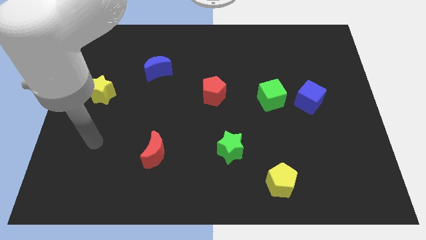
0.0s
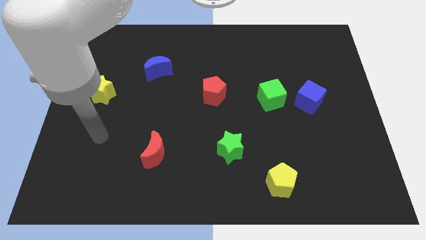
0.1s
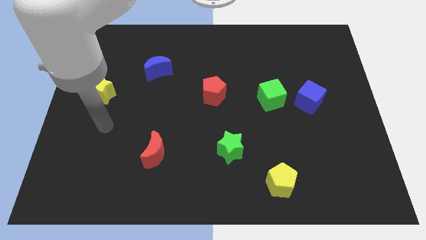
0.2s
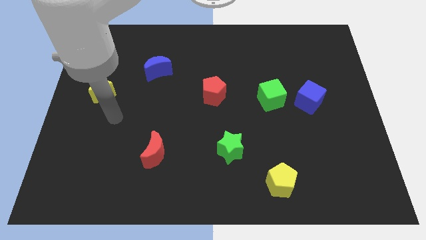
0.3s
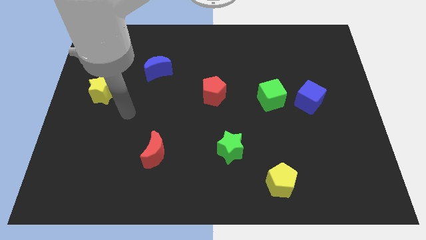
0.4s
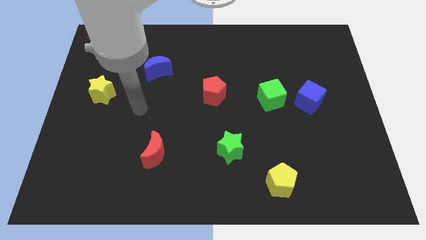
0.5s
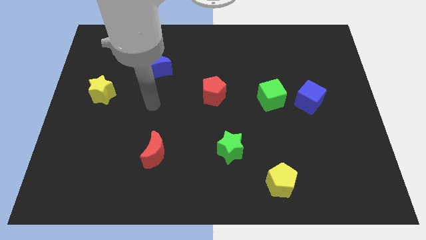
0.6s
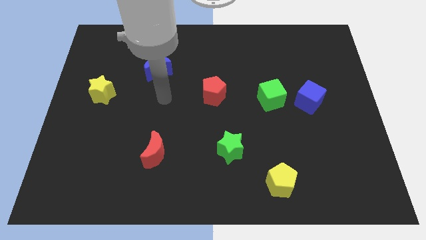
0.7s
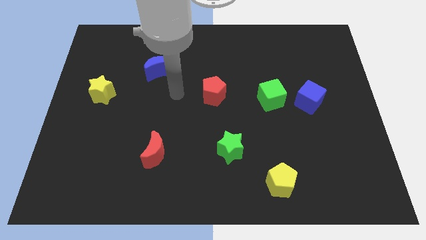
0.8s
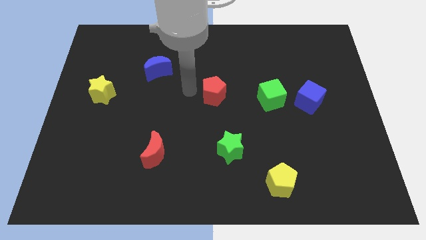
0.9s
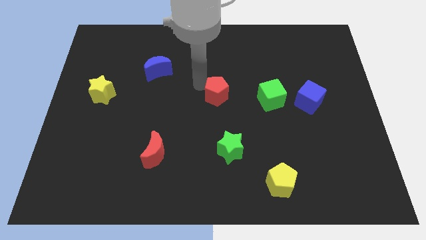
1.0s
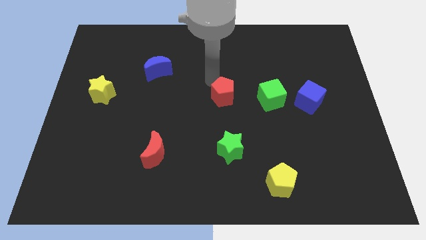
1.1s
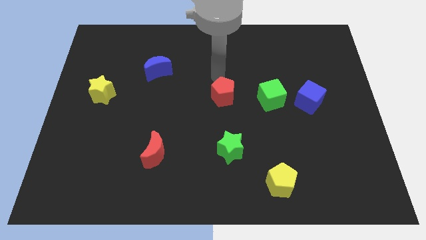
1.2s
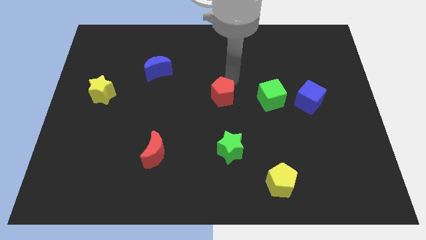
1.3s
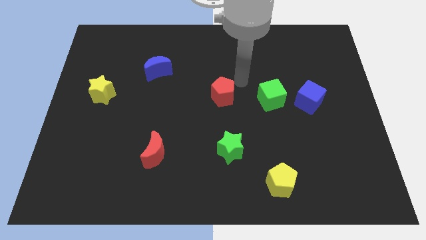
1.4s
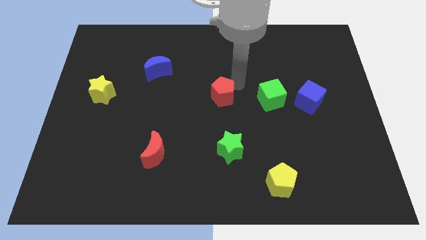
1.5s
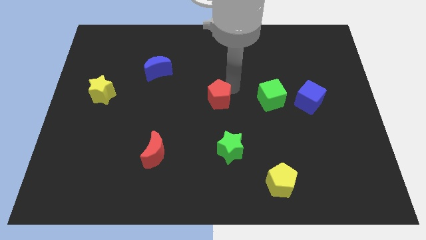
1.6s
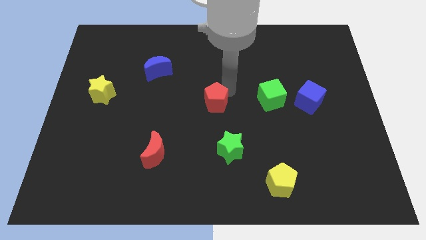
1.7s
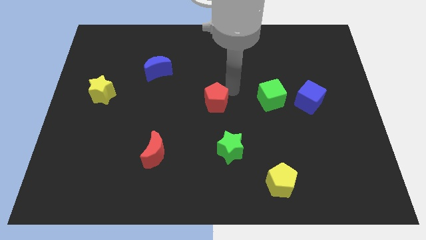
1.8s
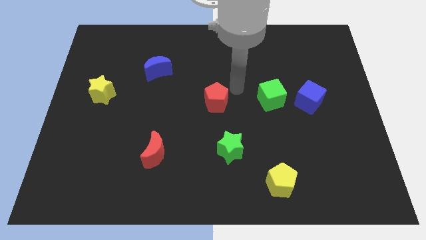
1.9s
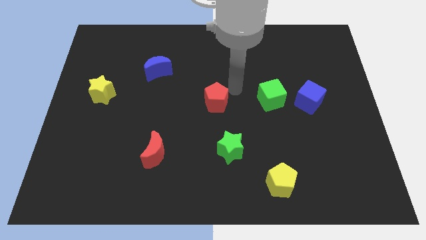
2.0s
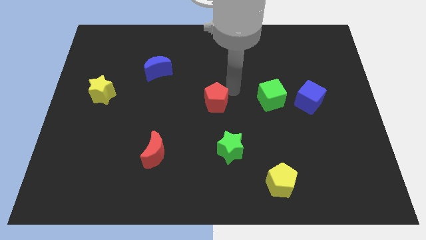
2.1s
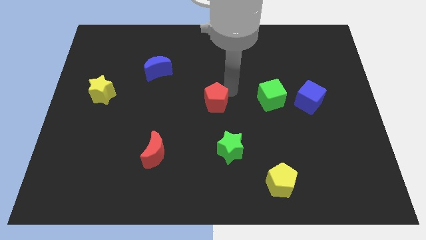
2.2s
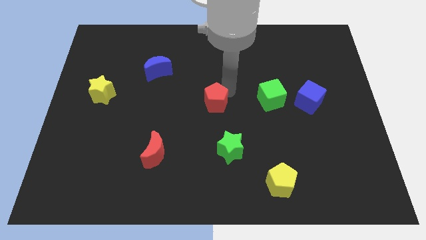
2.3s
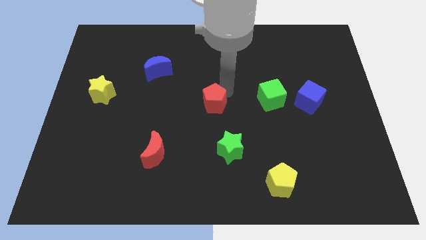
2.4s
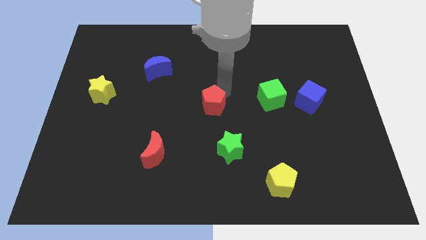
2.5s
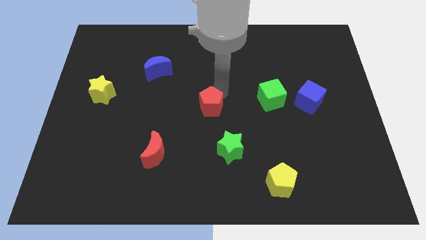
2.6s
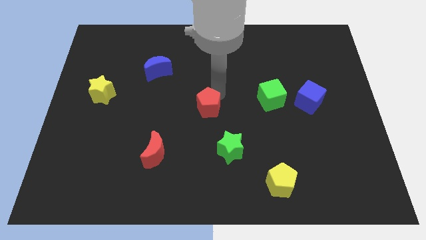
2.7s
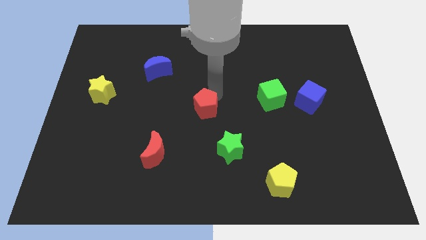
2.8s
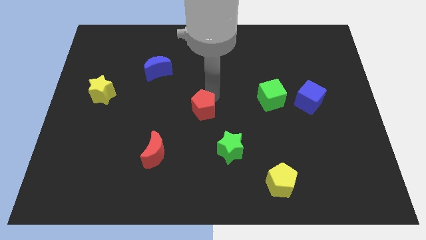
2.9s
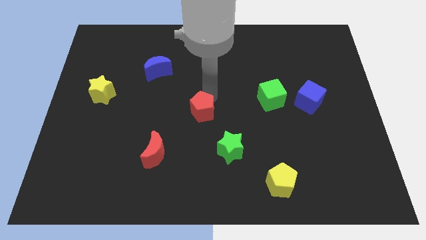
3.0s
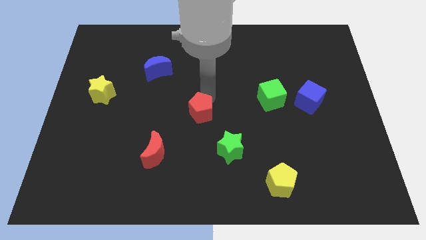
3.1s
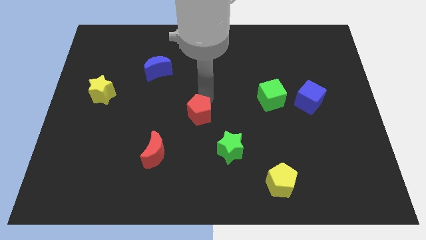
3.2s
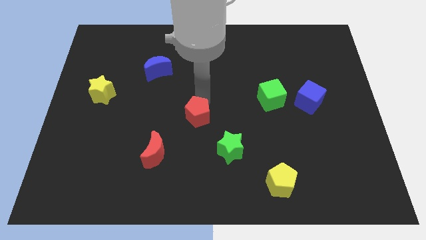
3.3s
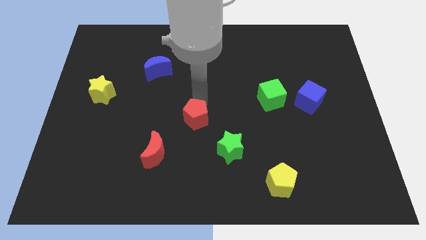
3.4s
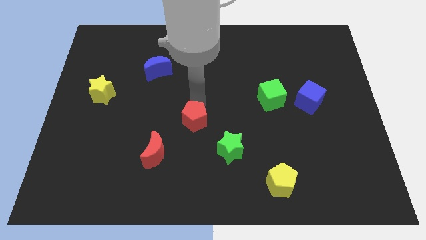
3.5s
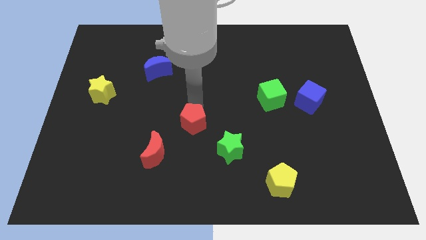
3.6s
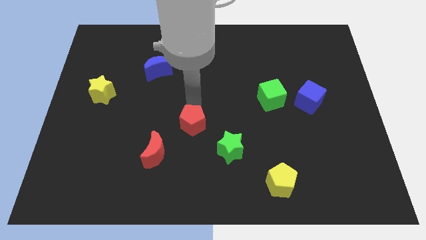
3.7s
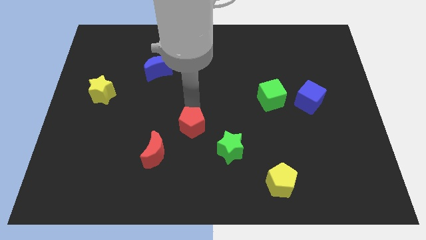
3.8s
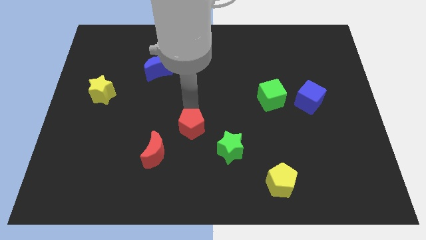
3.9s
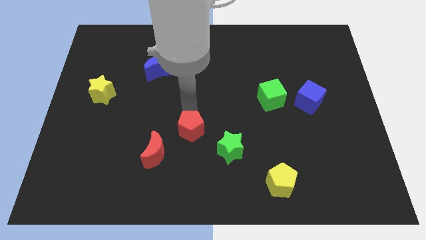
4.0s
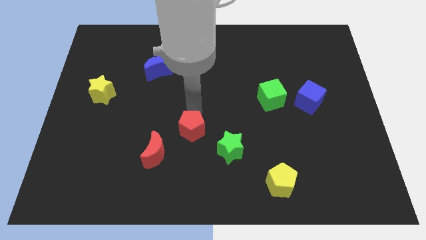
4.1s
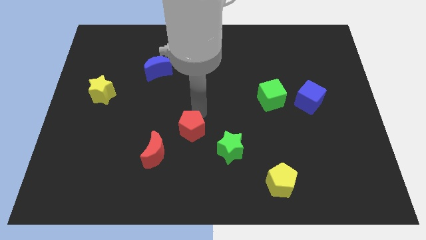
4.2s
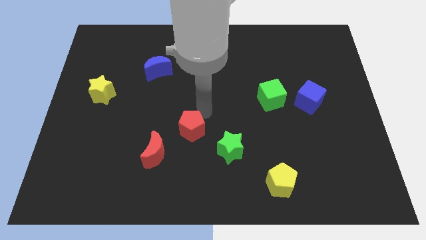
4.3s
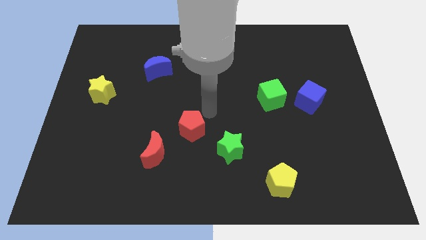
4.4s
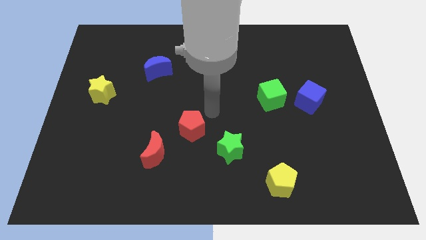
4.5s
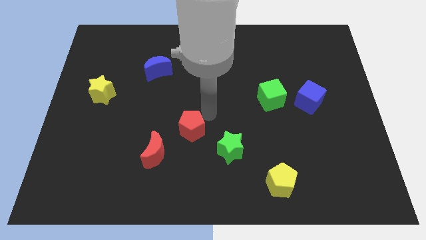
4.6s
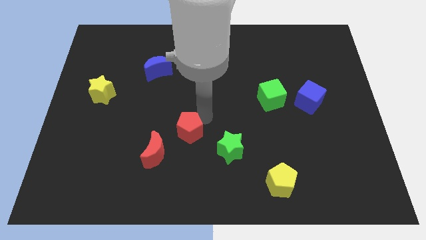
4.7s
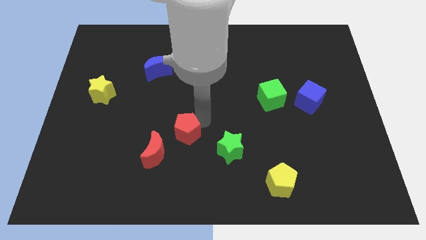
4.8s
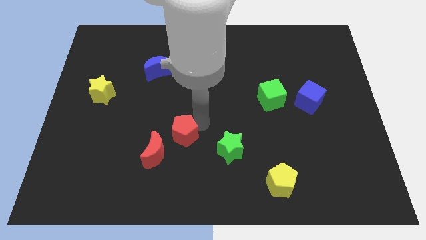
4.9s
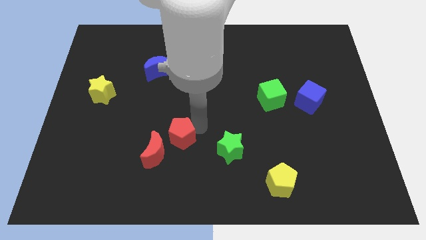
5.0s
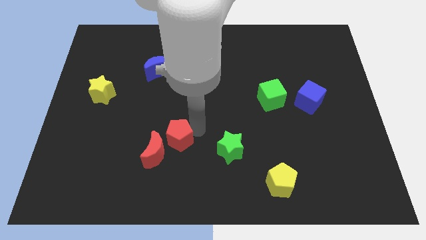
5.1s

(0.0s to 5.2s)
put the red pentagon towards the red moon

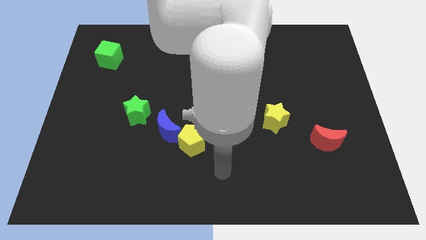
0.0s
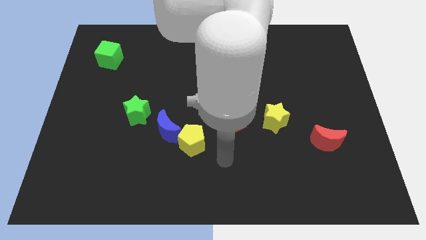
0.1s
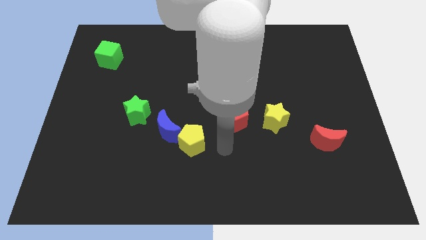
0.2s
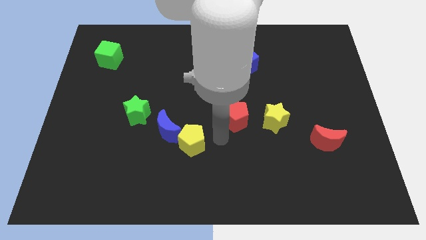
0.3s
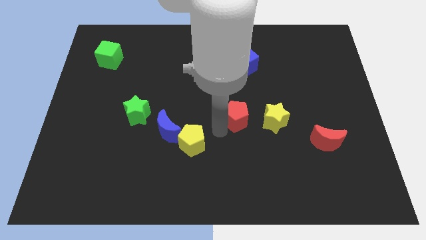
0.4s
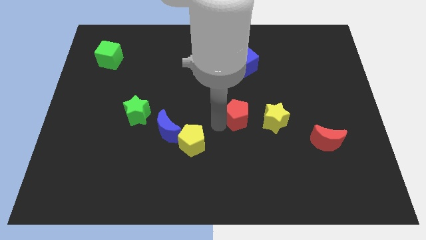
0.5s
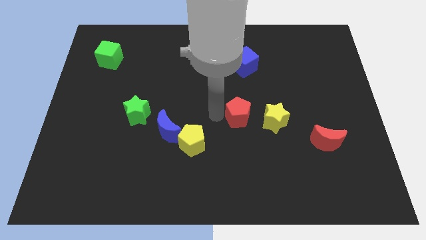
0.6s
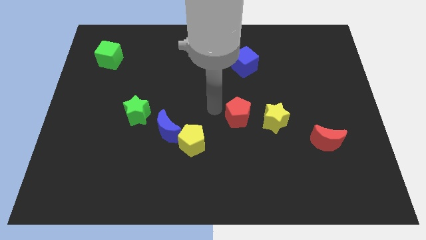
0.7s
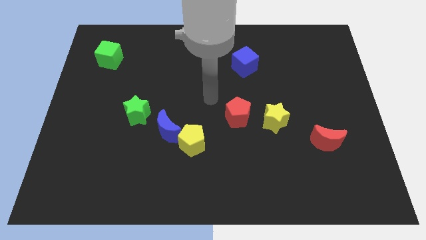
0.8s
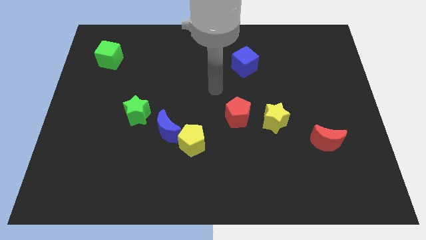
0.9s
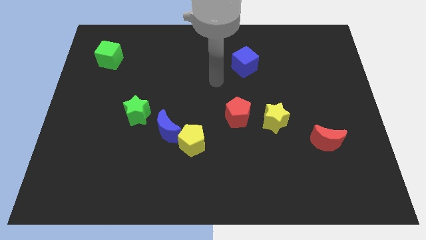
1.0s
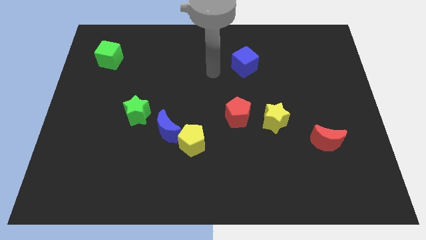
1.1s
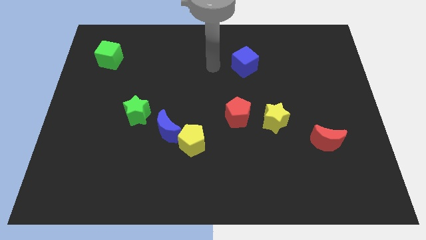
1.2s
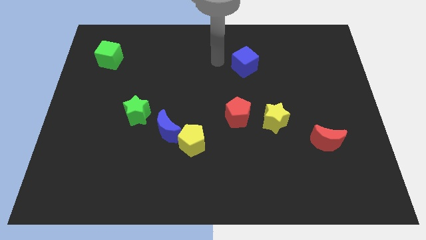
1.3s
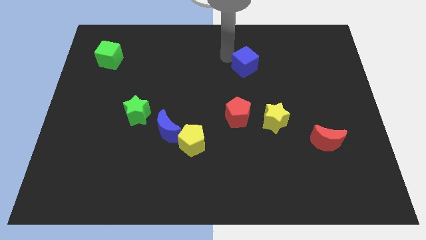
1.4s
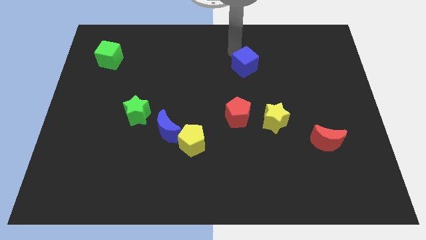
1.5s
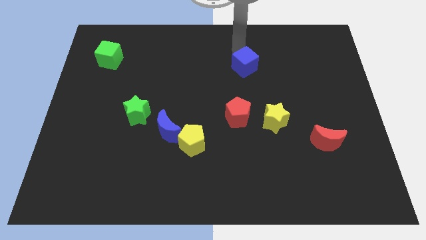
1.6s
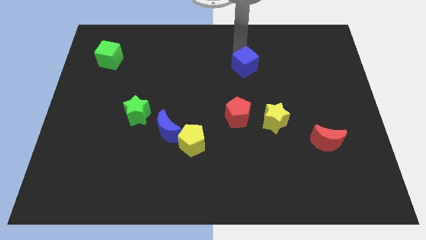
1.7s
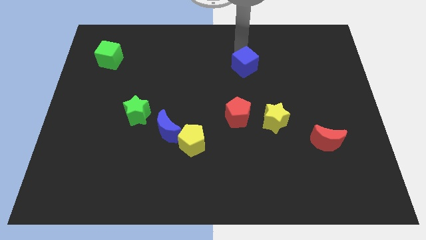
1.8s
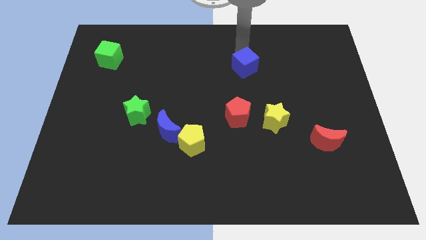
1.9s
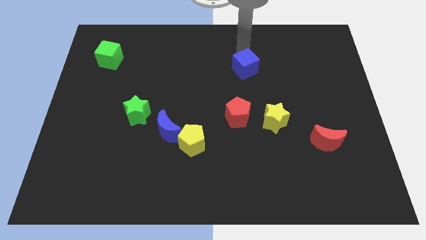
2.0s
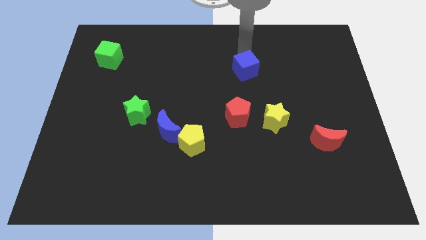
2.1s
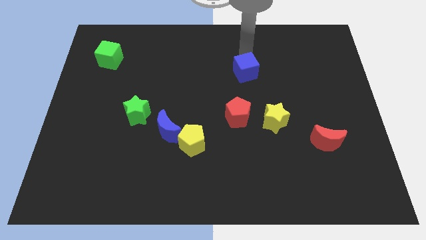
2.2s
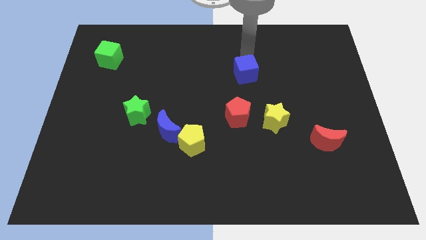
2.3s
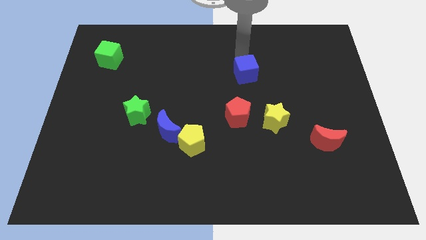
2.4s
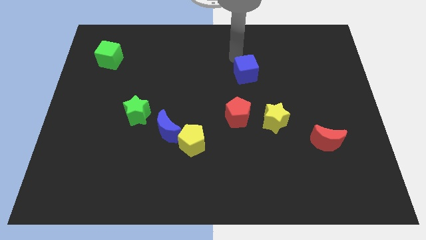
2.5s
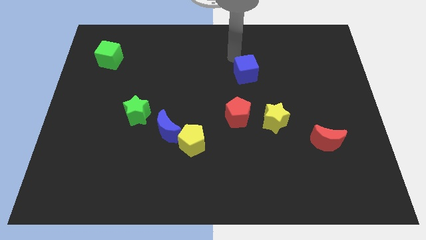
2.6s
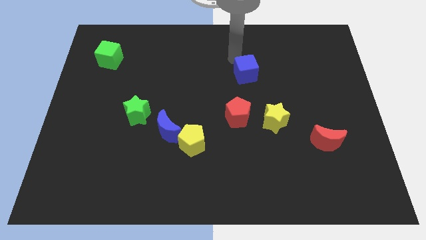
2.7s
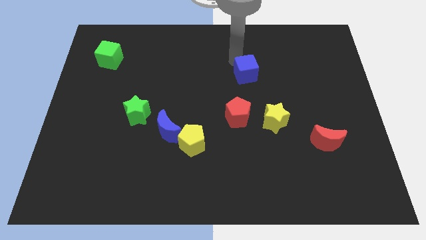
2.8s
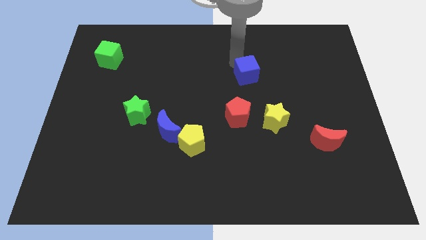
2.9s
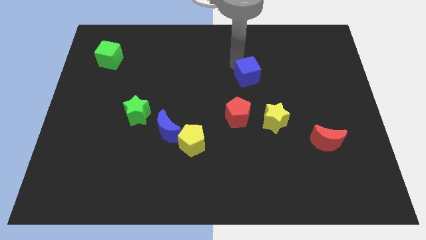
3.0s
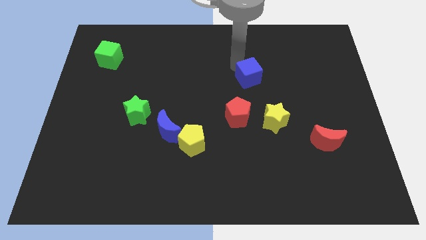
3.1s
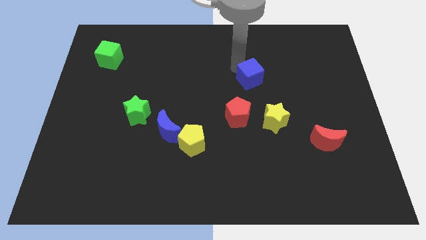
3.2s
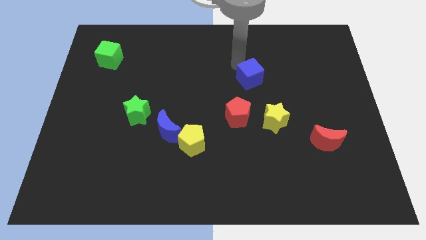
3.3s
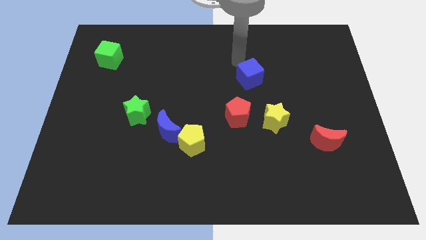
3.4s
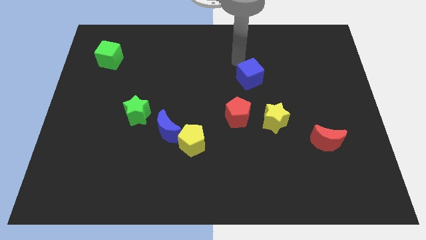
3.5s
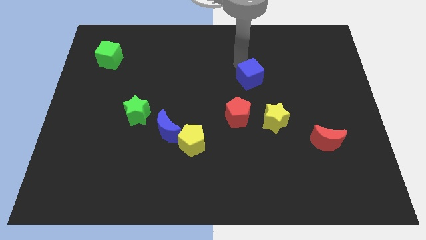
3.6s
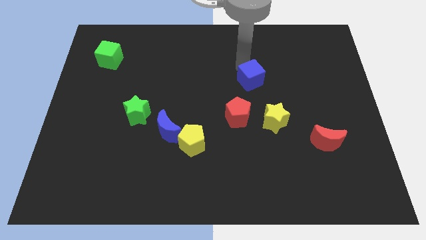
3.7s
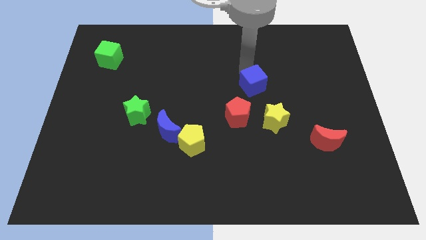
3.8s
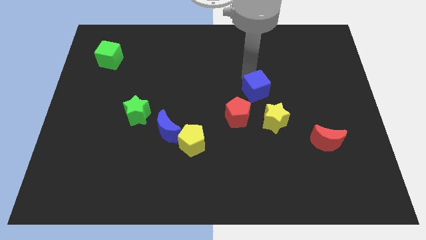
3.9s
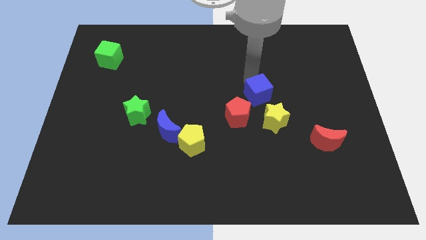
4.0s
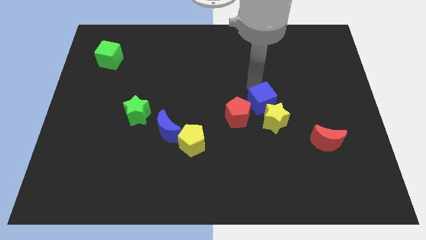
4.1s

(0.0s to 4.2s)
put the blue cube to the yellow star
